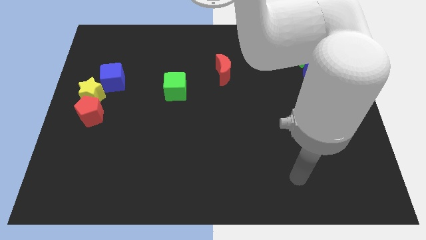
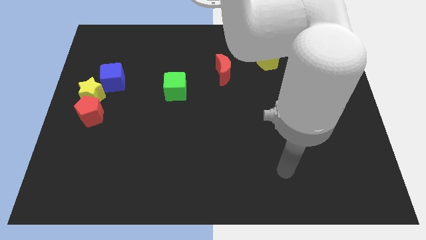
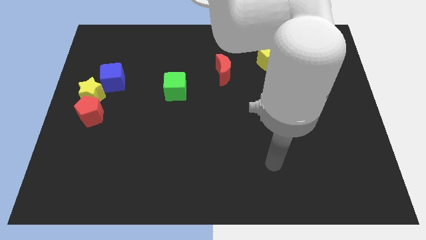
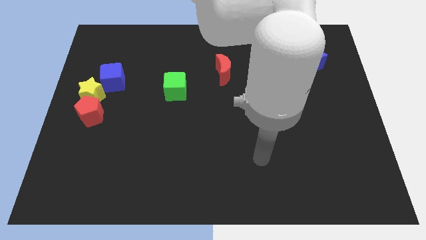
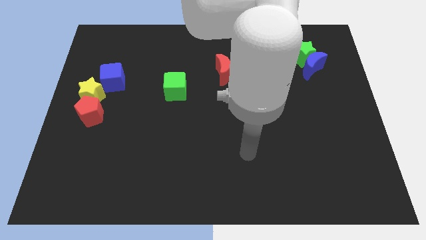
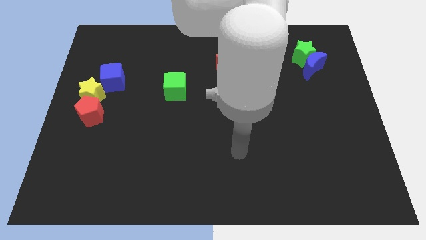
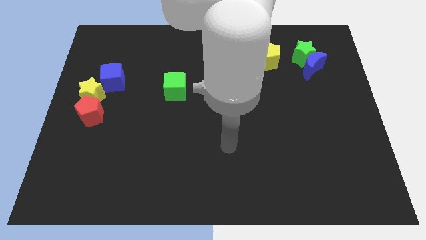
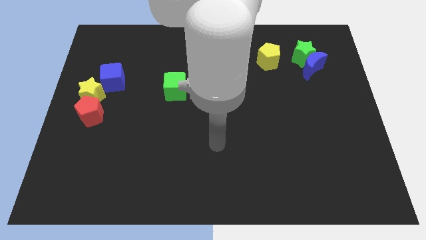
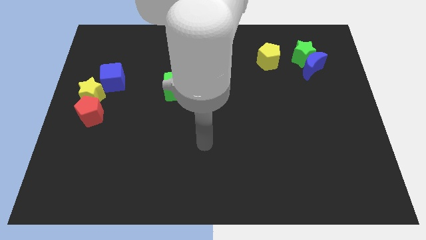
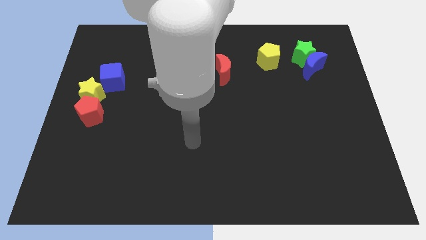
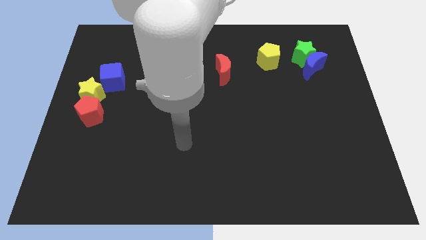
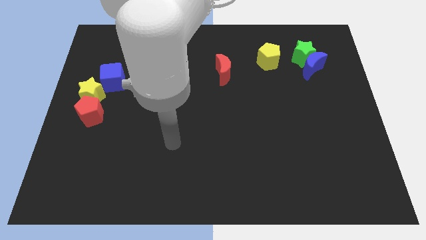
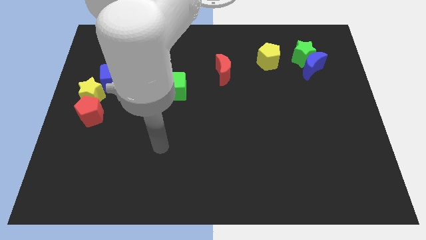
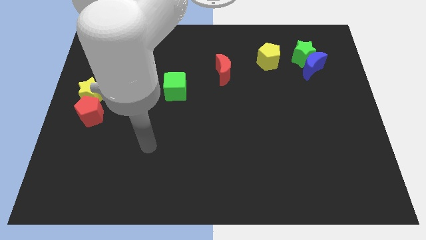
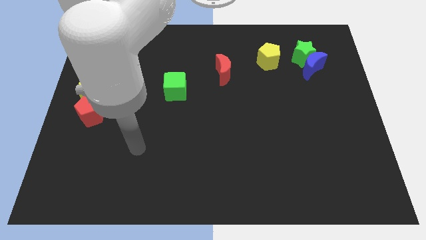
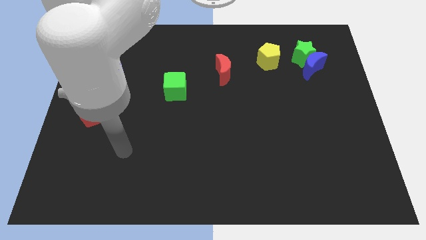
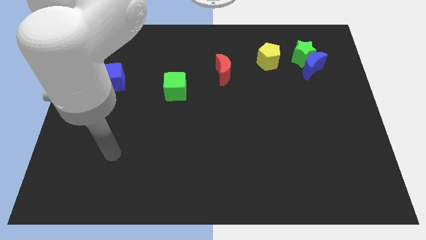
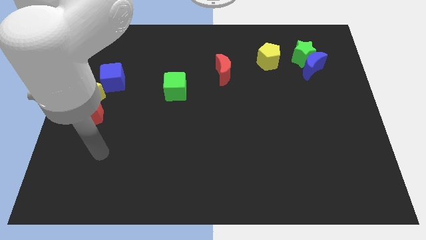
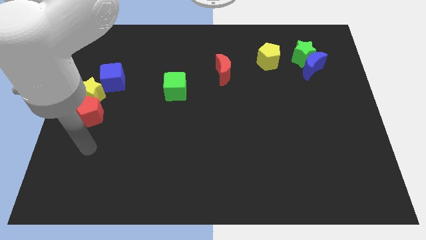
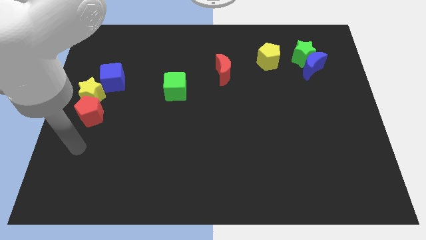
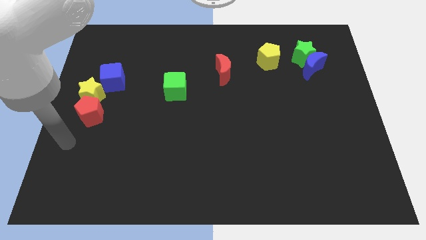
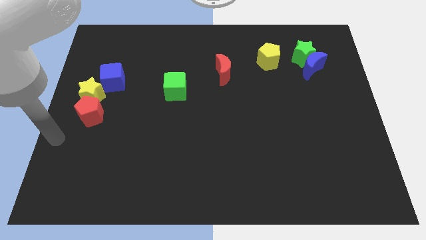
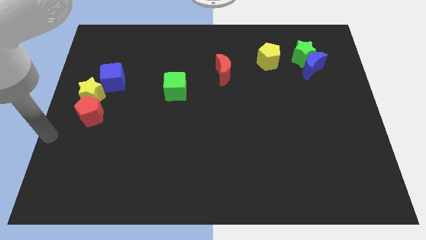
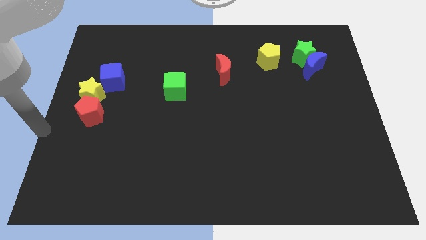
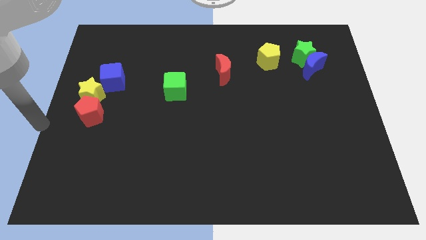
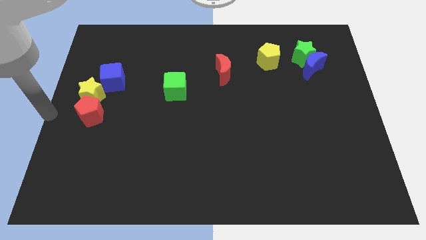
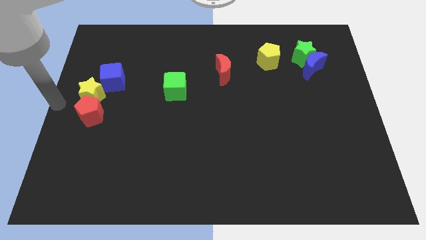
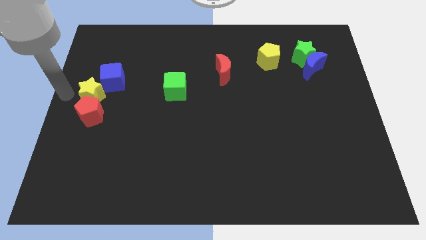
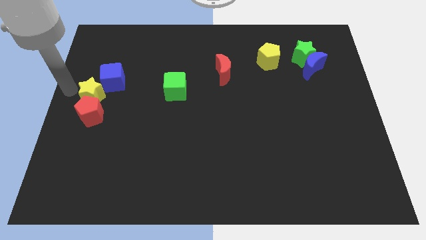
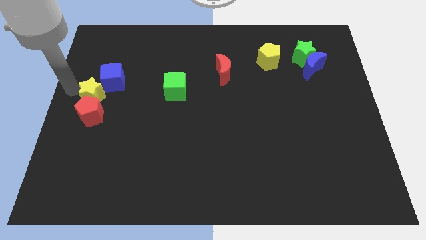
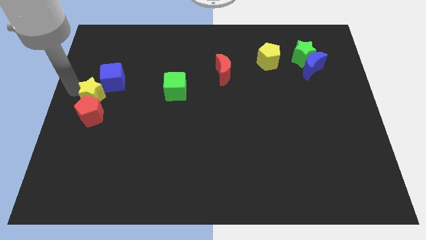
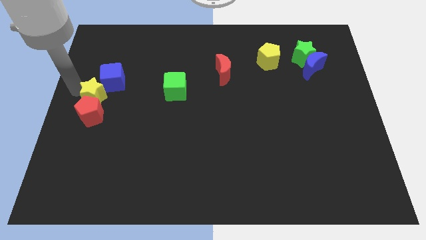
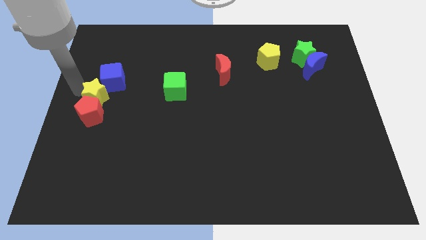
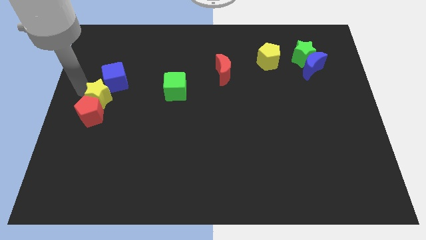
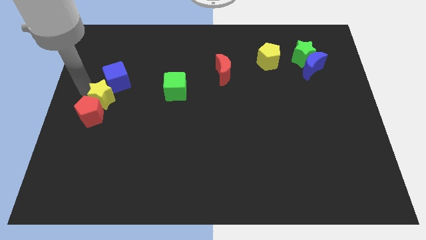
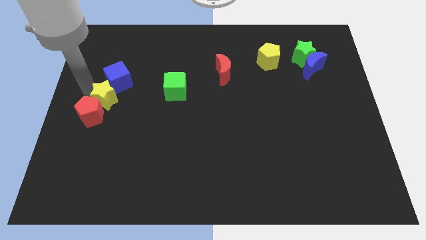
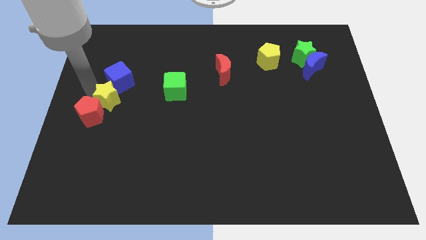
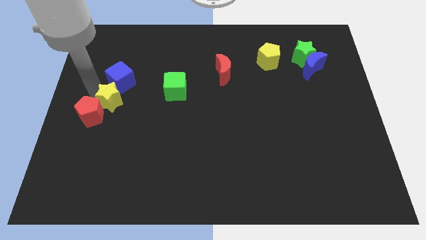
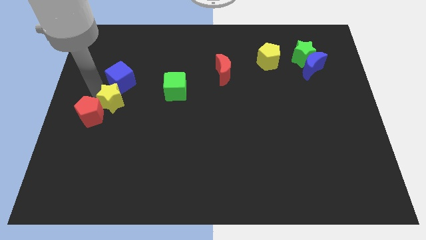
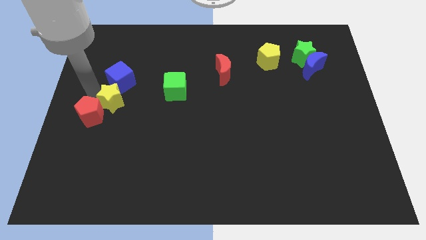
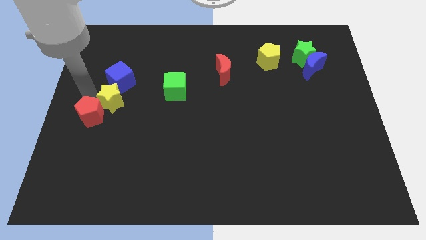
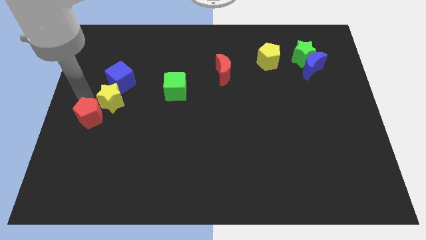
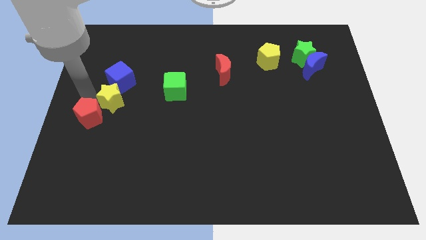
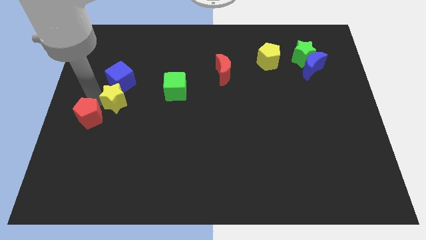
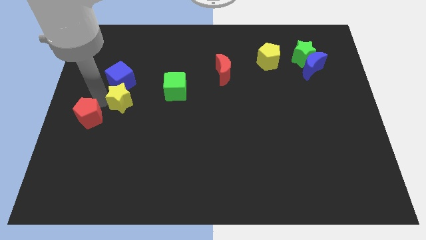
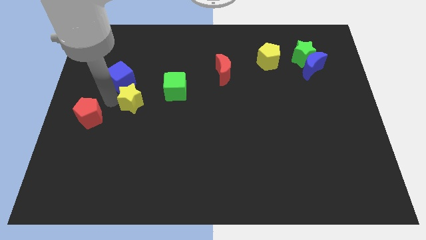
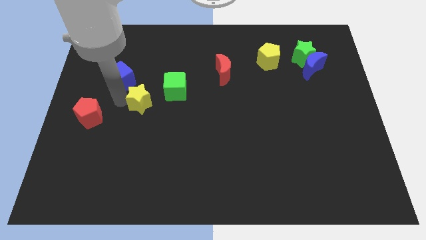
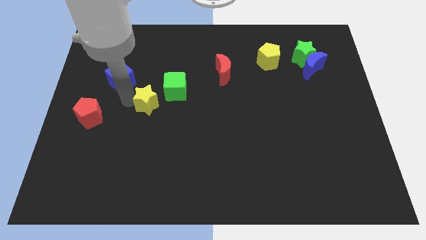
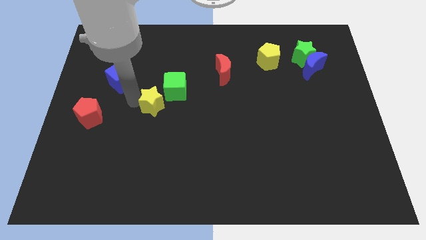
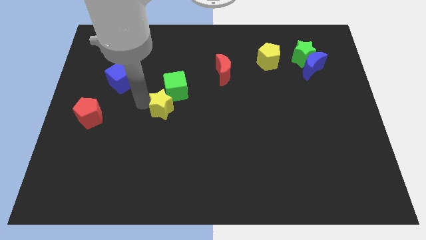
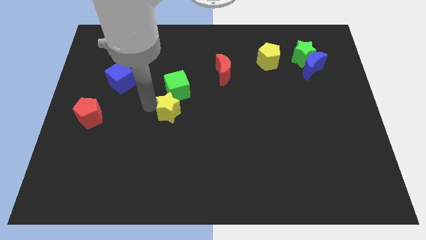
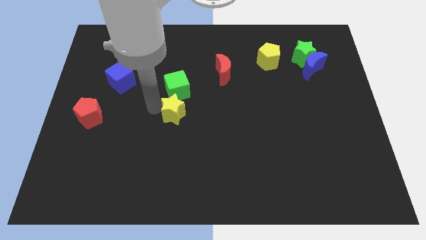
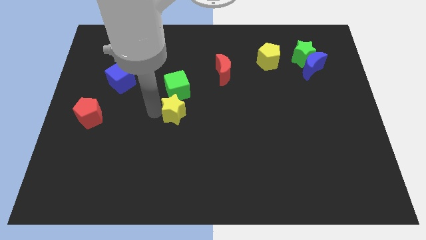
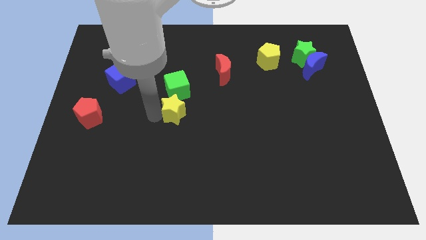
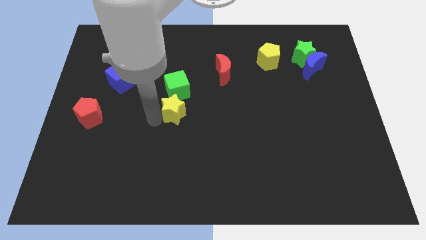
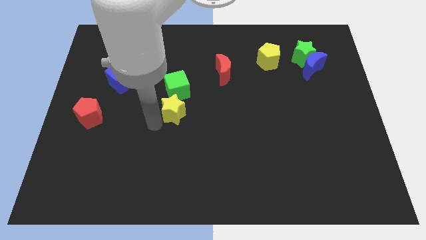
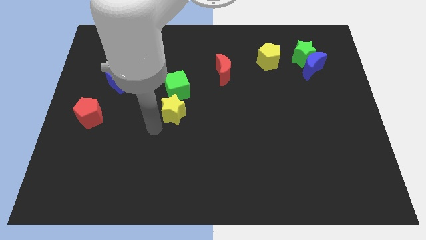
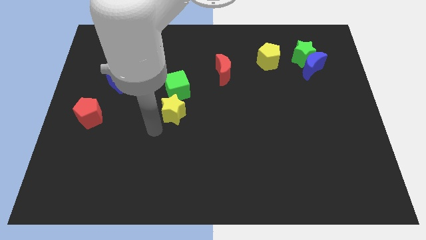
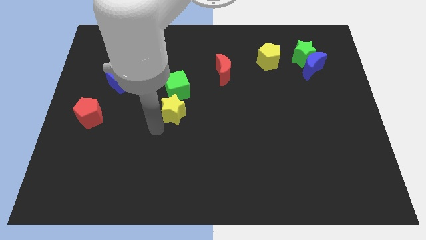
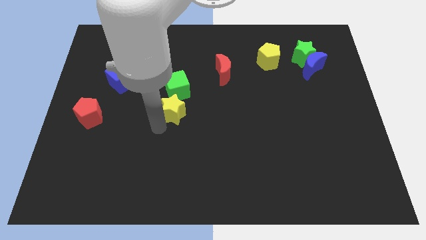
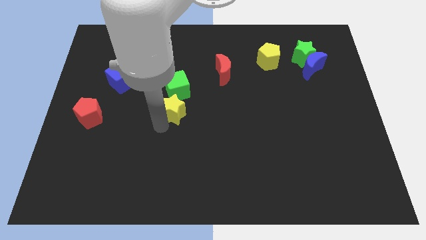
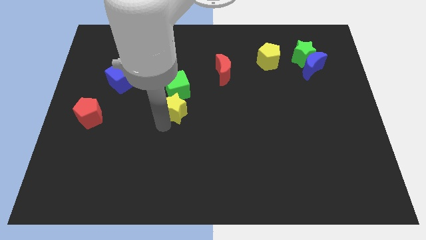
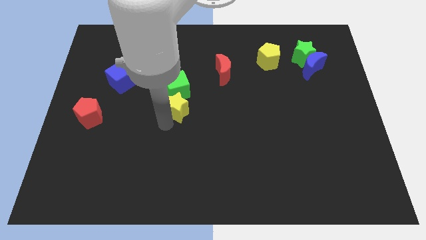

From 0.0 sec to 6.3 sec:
slide the yellow star right

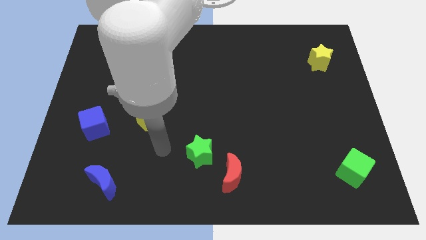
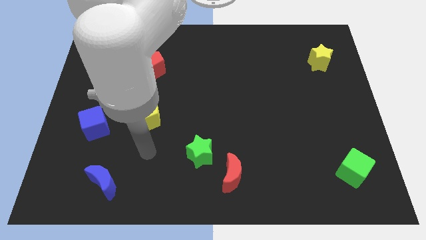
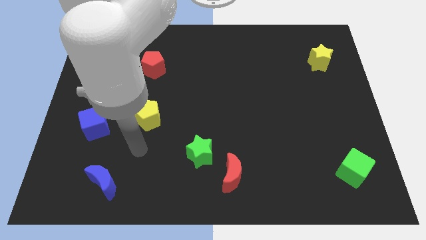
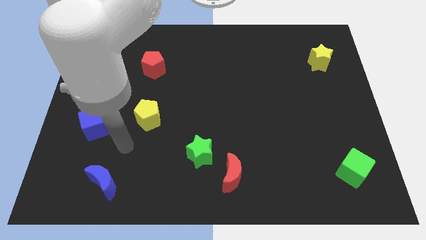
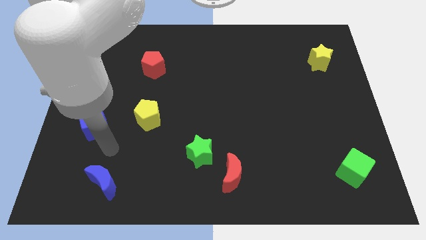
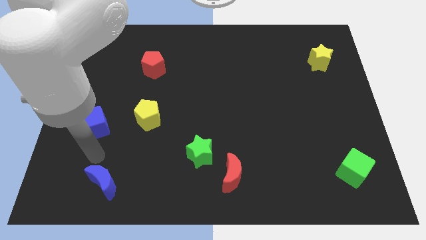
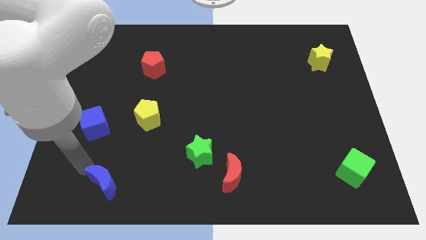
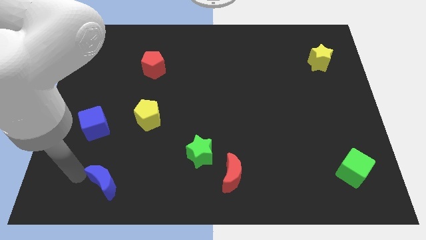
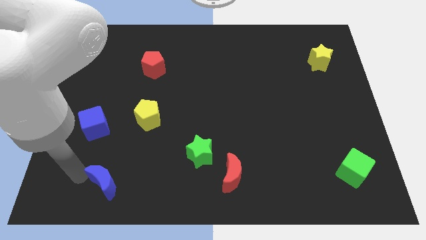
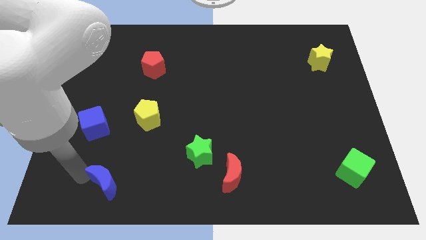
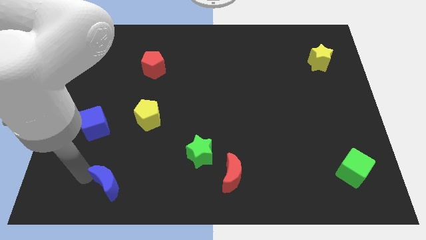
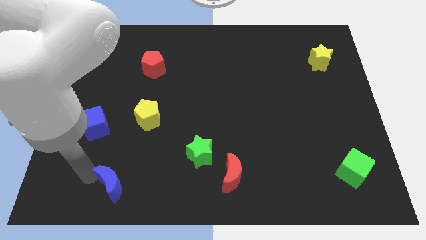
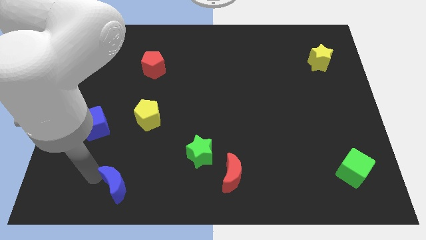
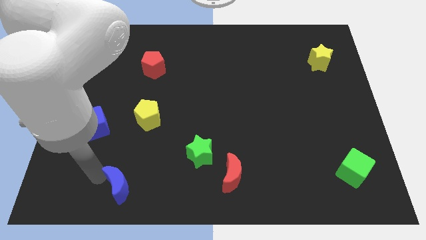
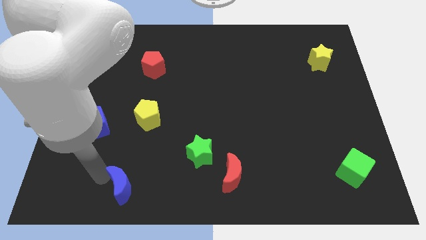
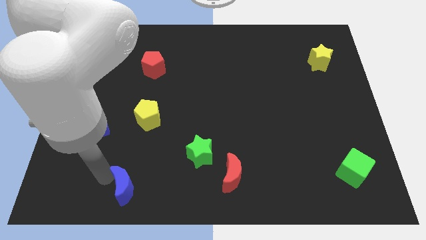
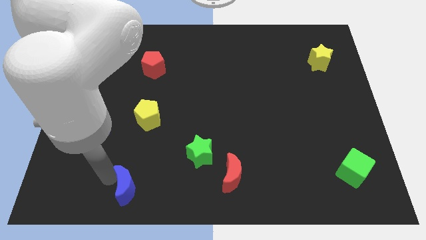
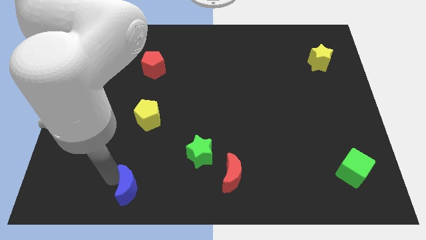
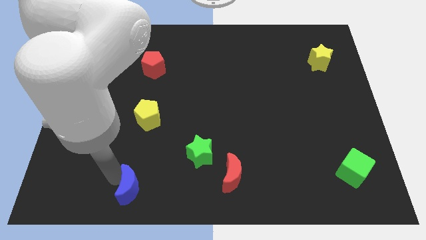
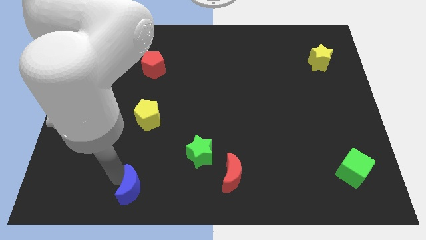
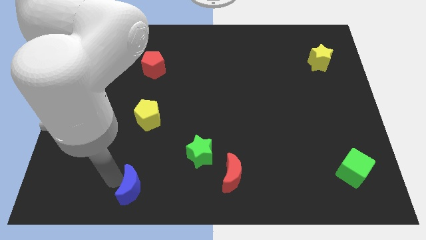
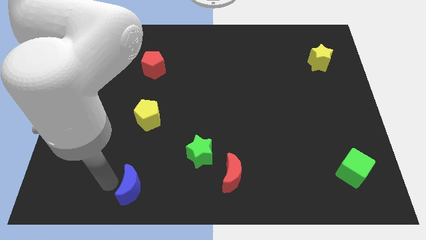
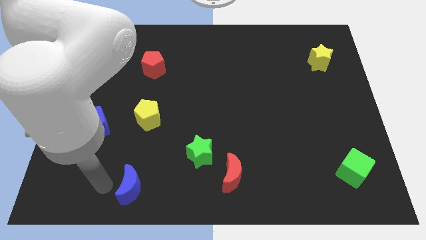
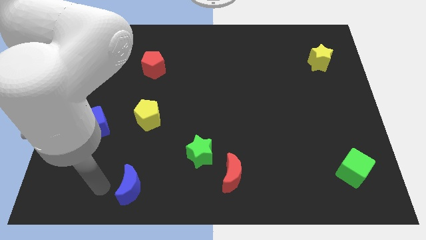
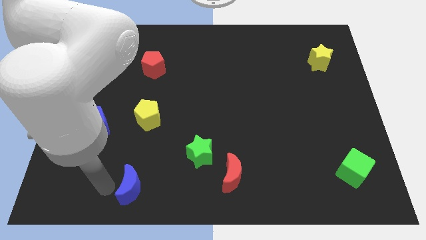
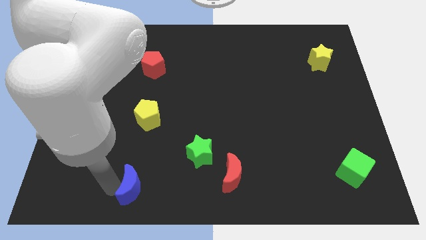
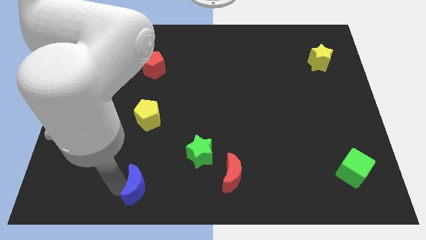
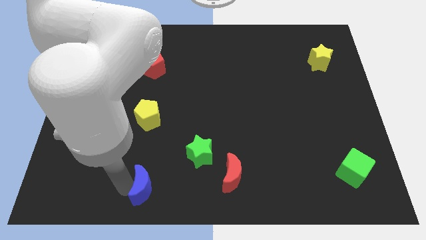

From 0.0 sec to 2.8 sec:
slide the blue moon slightly right
